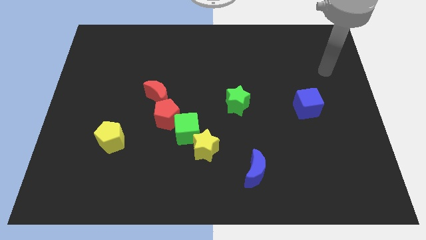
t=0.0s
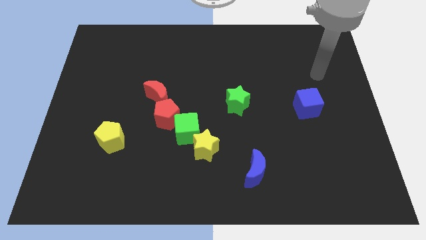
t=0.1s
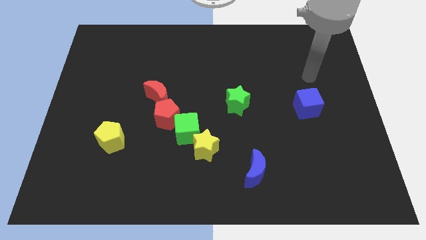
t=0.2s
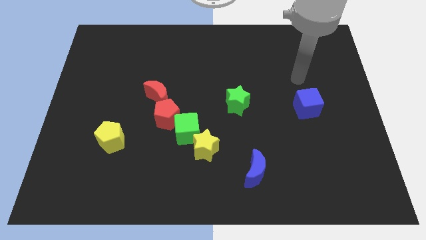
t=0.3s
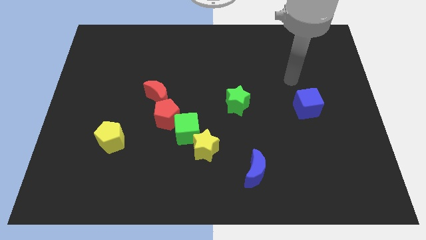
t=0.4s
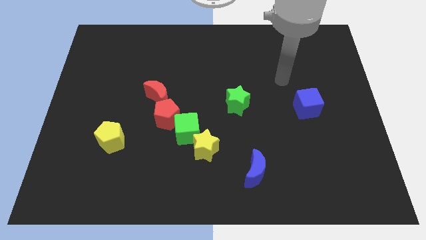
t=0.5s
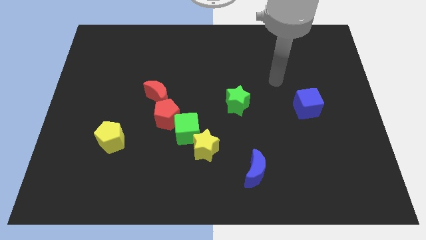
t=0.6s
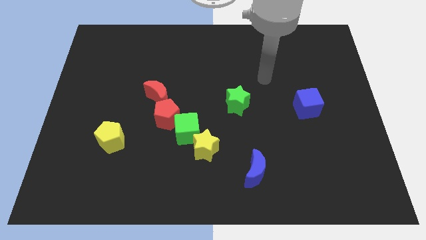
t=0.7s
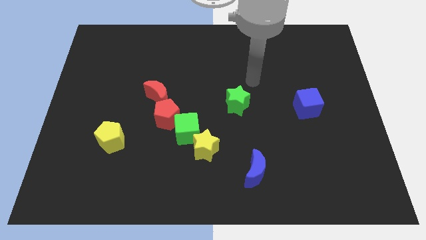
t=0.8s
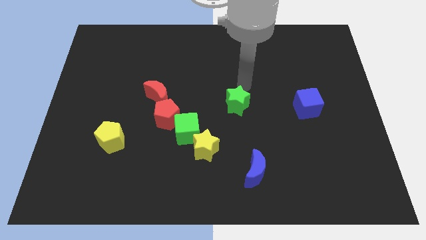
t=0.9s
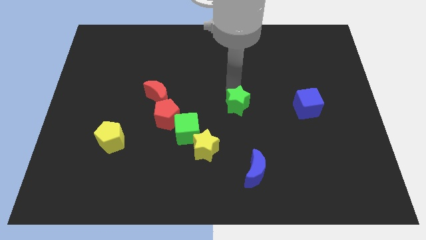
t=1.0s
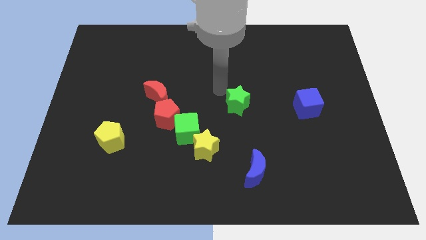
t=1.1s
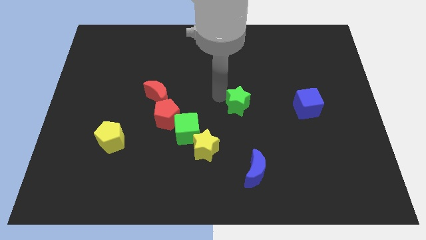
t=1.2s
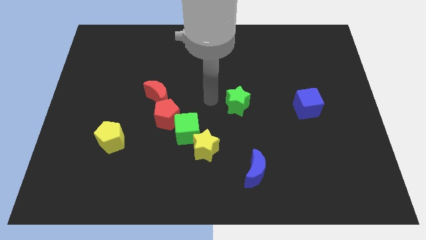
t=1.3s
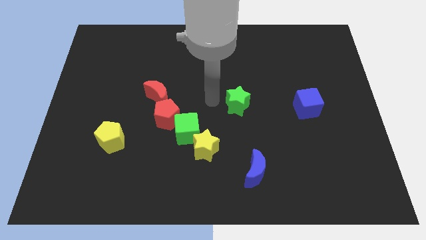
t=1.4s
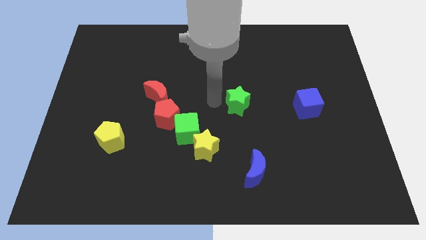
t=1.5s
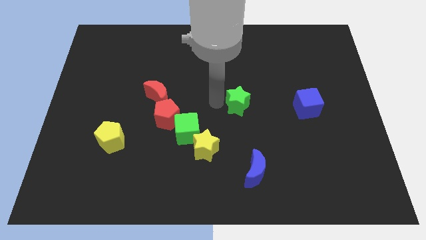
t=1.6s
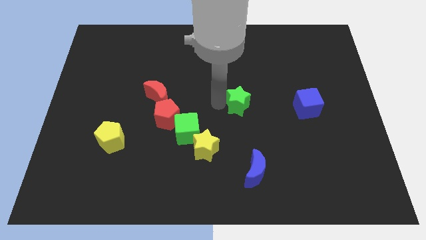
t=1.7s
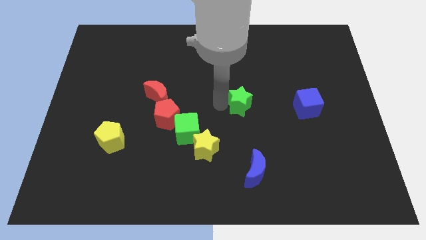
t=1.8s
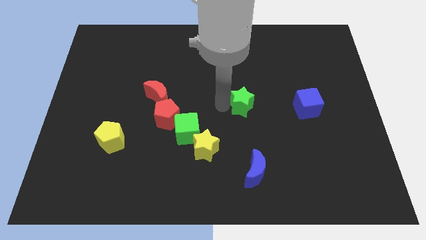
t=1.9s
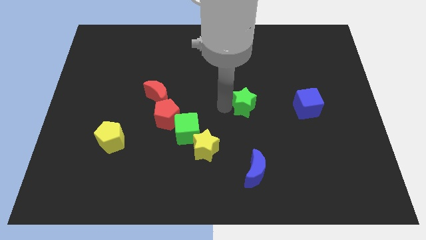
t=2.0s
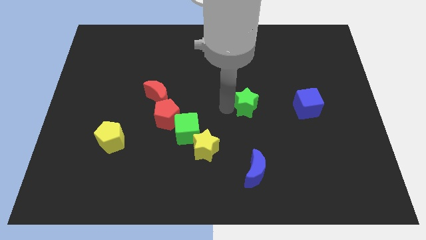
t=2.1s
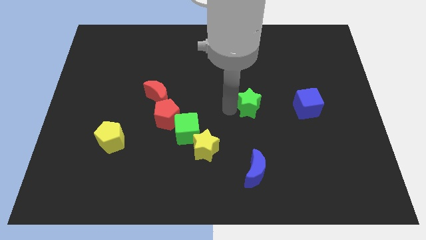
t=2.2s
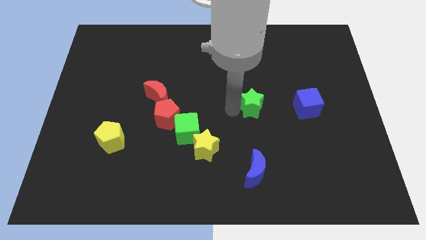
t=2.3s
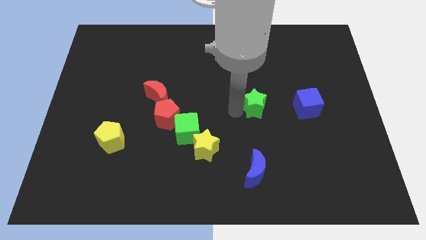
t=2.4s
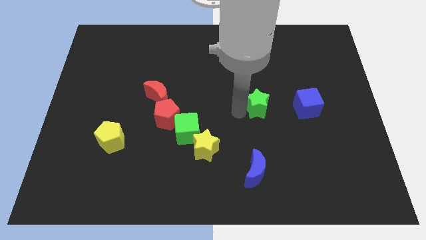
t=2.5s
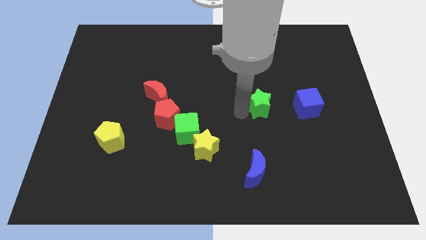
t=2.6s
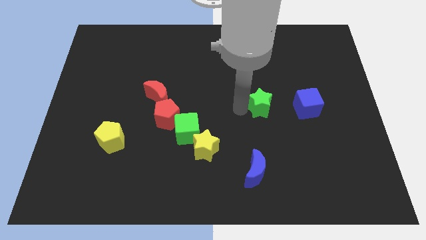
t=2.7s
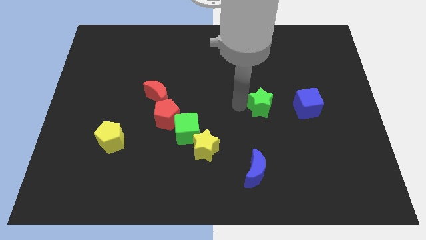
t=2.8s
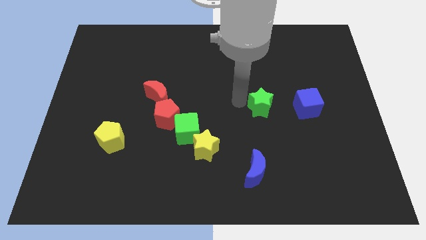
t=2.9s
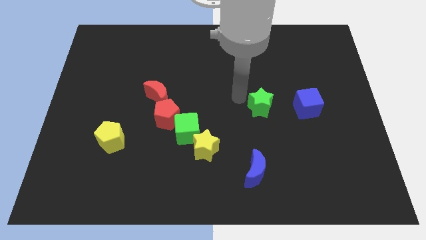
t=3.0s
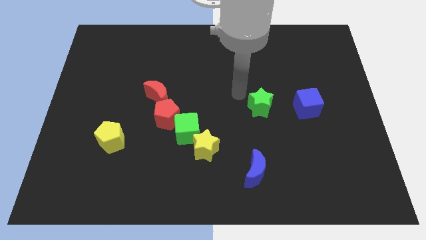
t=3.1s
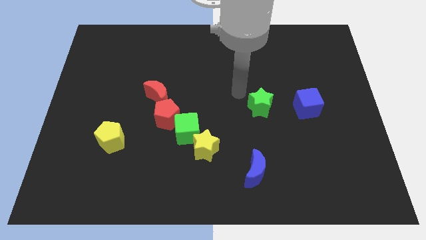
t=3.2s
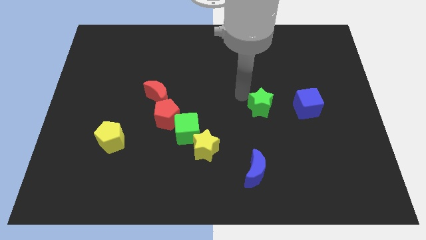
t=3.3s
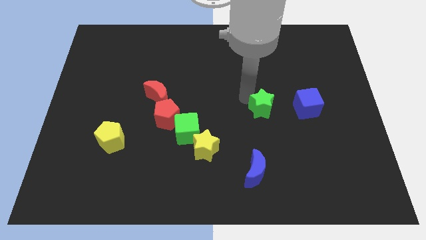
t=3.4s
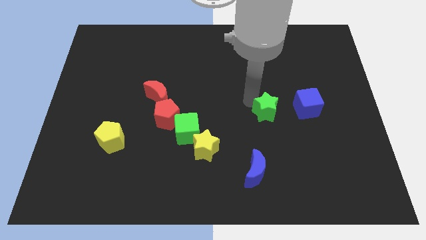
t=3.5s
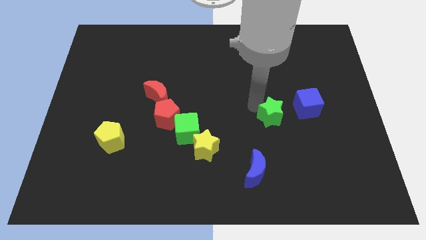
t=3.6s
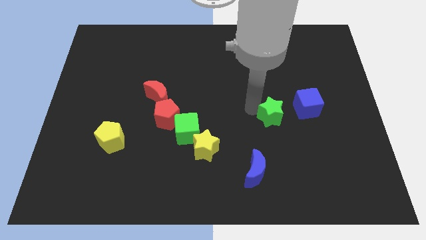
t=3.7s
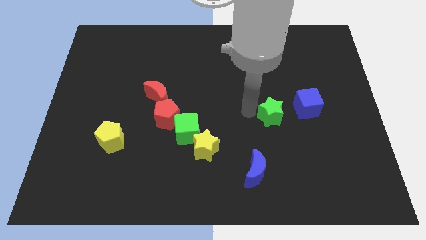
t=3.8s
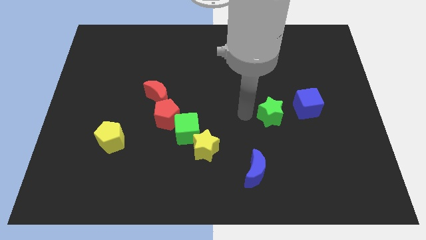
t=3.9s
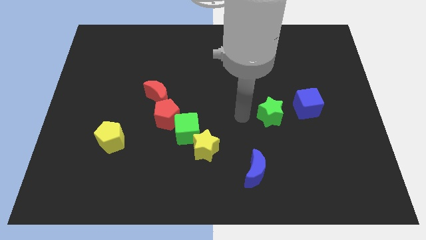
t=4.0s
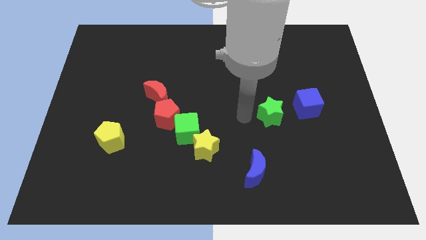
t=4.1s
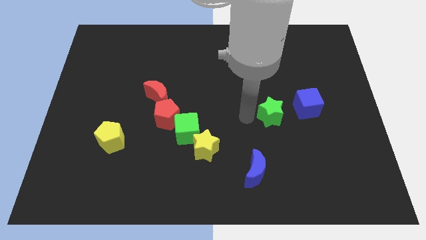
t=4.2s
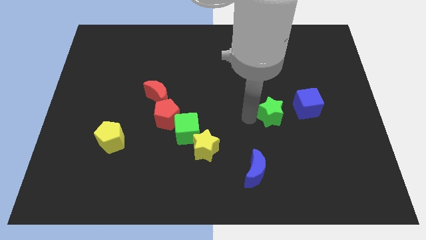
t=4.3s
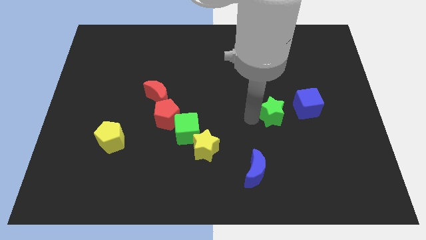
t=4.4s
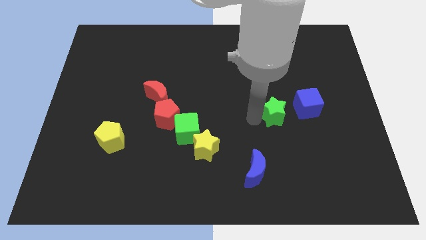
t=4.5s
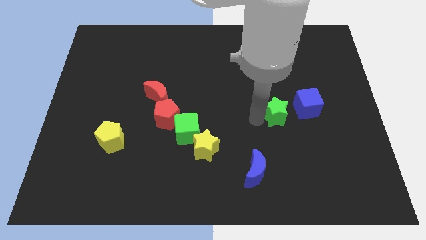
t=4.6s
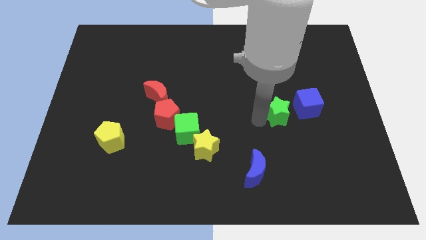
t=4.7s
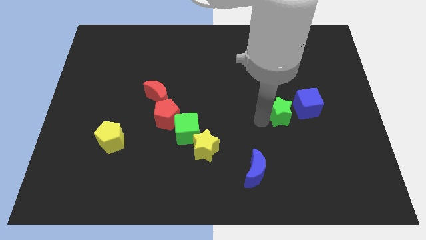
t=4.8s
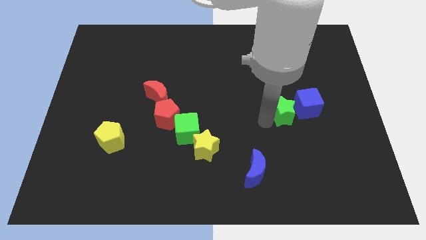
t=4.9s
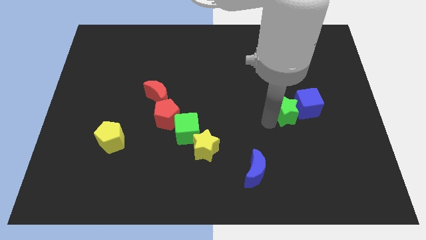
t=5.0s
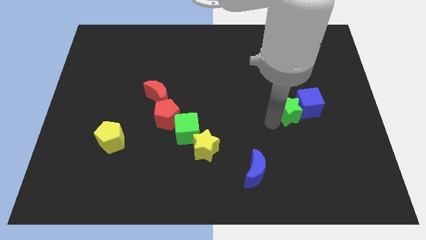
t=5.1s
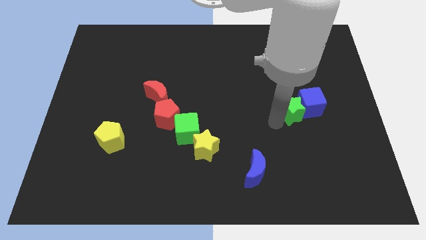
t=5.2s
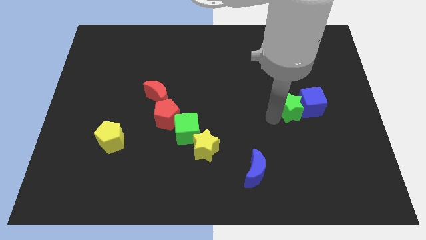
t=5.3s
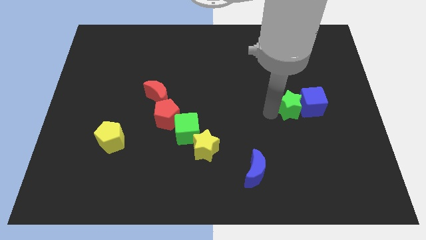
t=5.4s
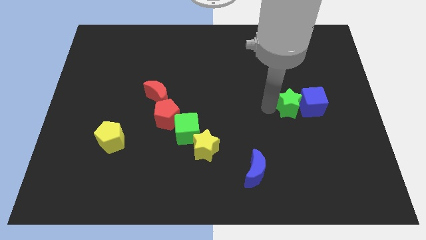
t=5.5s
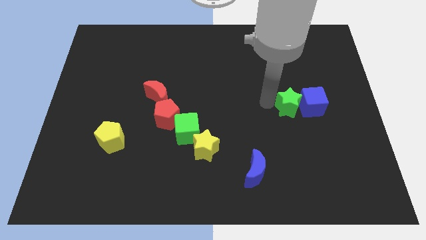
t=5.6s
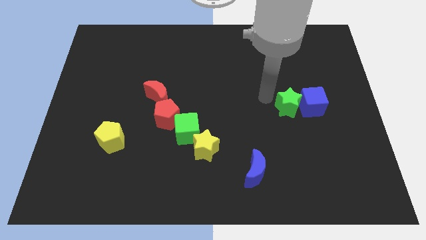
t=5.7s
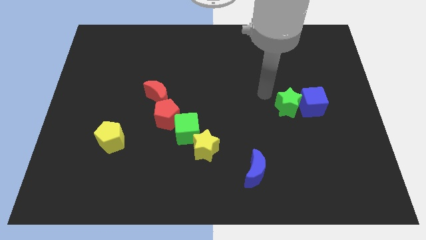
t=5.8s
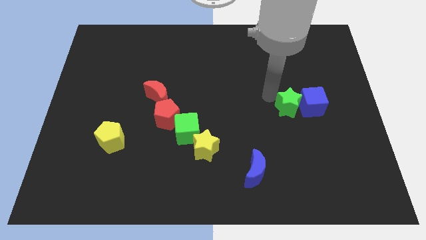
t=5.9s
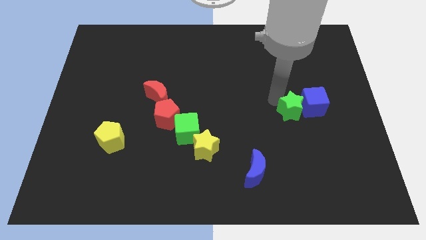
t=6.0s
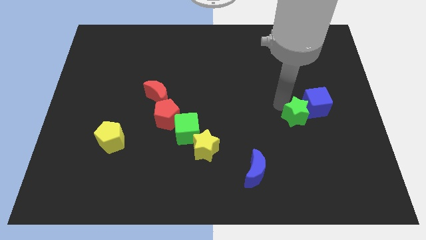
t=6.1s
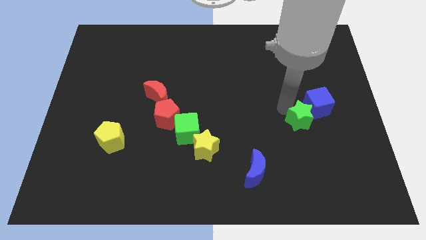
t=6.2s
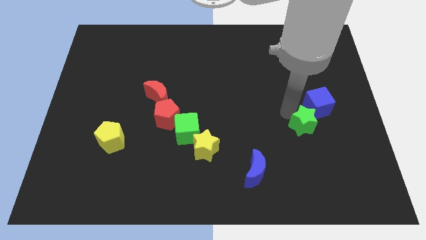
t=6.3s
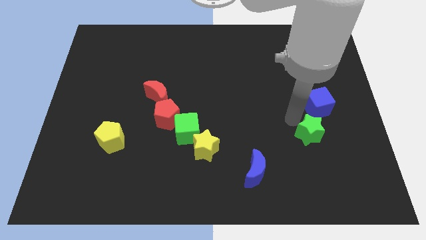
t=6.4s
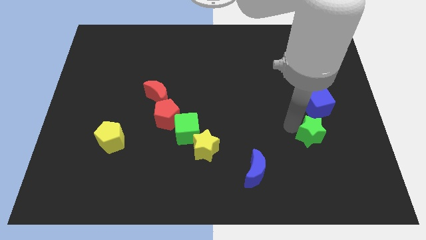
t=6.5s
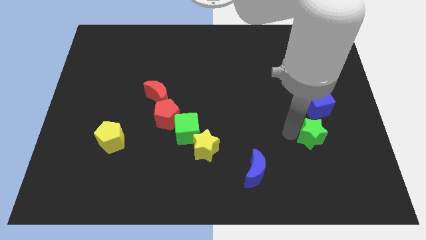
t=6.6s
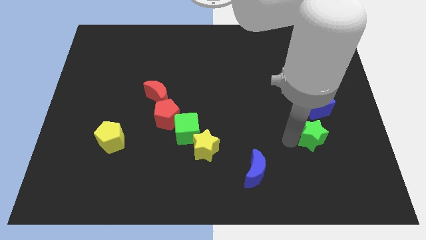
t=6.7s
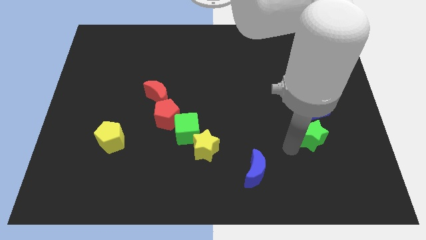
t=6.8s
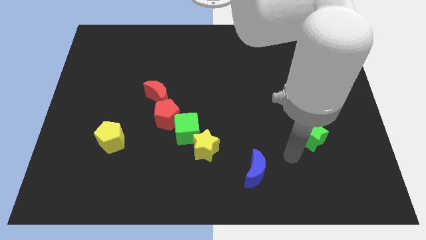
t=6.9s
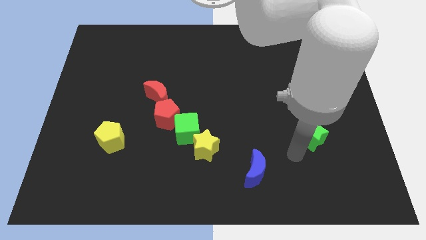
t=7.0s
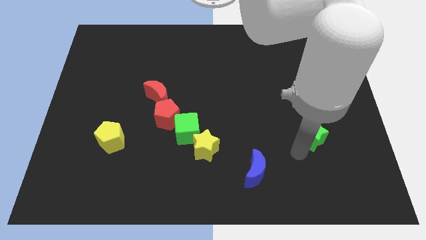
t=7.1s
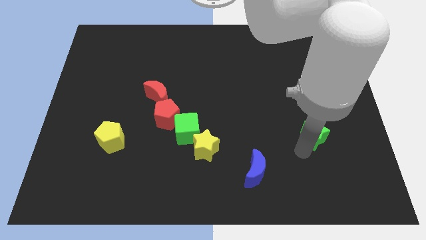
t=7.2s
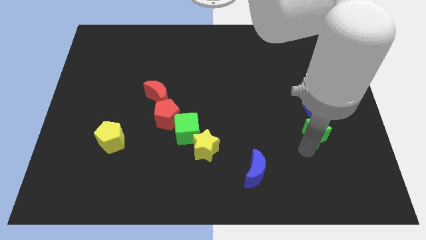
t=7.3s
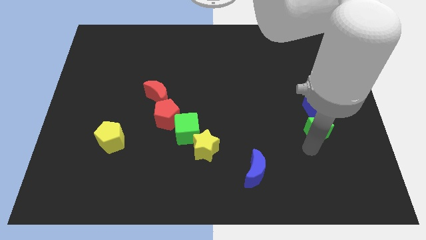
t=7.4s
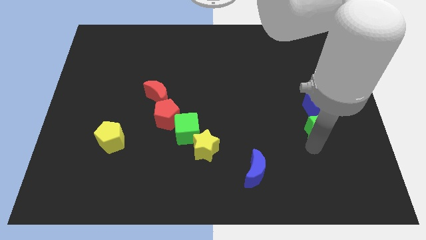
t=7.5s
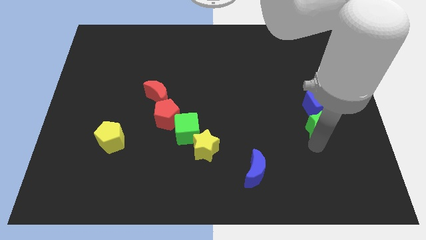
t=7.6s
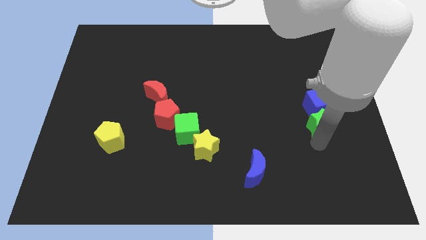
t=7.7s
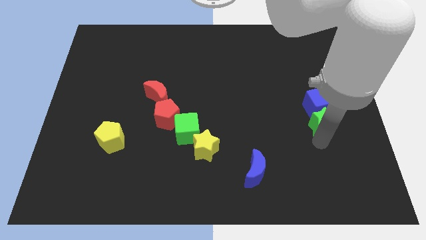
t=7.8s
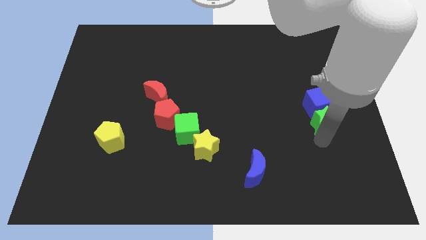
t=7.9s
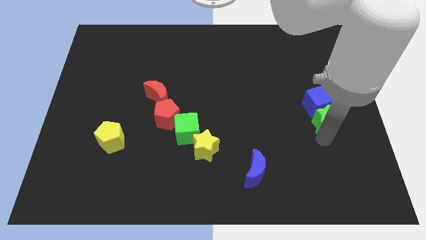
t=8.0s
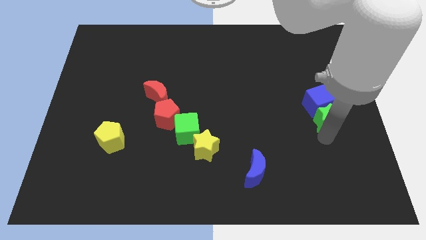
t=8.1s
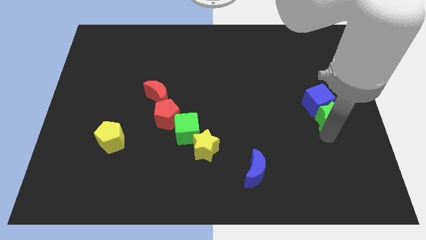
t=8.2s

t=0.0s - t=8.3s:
put the green star to the right side of the board

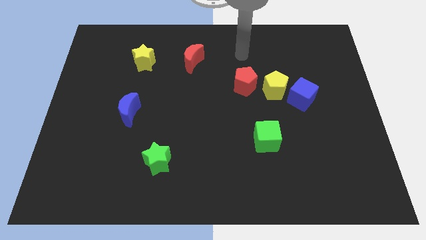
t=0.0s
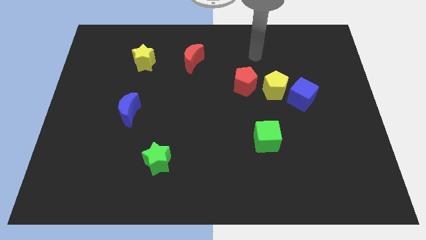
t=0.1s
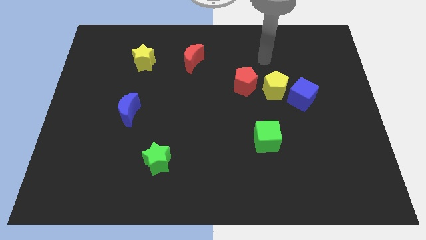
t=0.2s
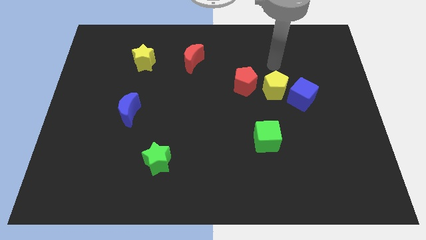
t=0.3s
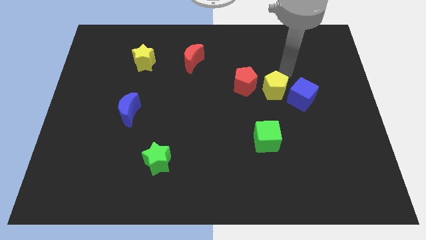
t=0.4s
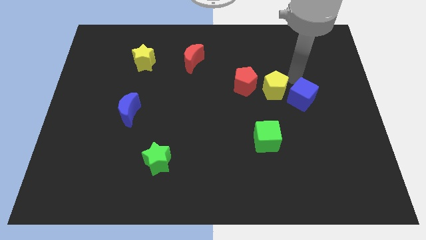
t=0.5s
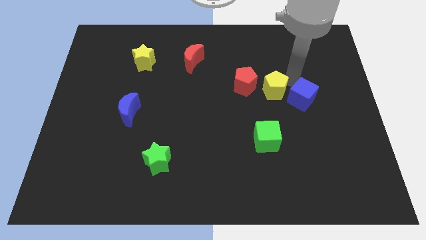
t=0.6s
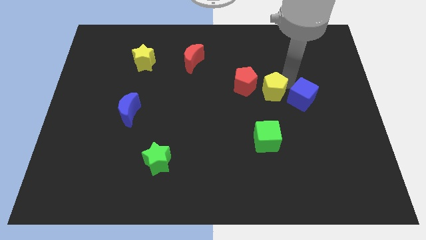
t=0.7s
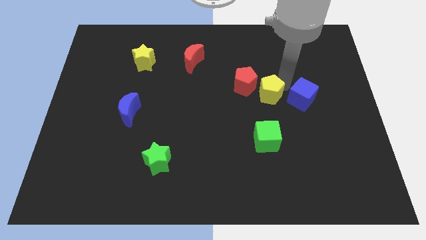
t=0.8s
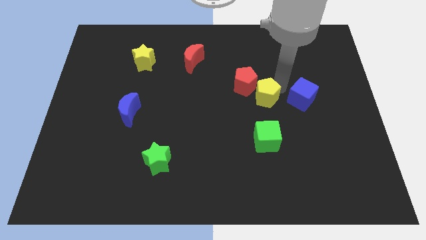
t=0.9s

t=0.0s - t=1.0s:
move the yellow pentagon to the middle
